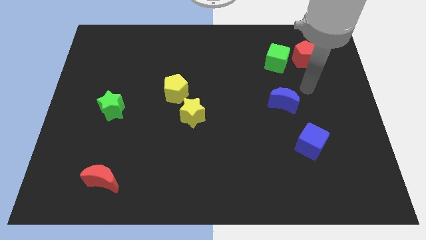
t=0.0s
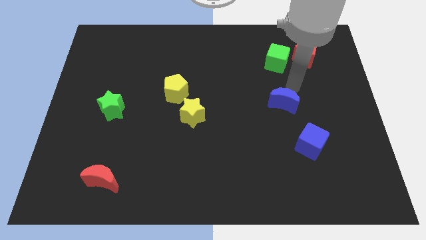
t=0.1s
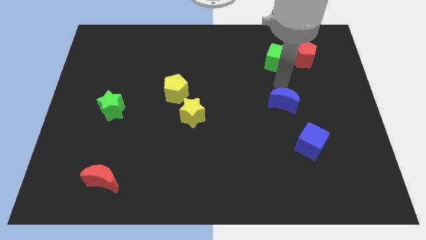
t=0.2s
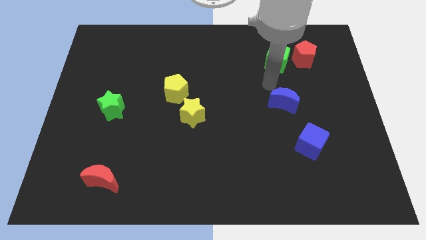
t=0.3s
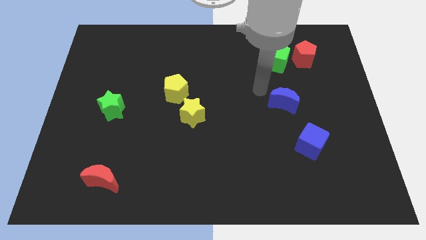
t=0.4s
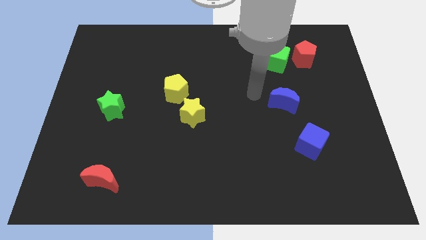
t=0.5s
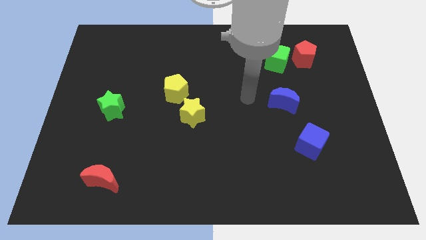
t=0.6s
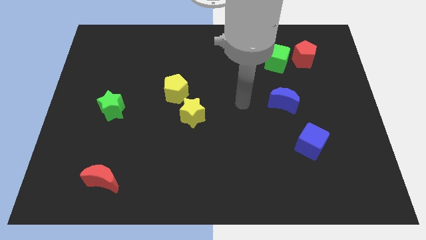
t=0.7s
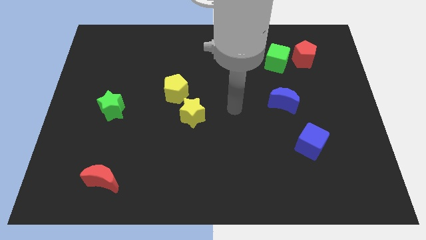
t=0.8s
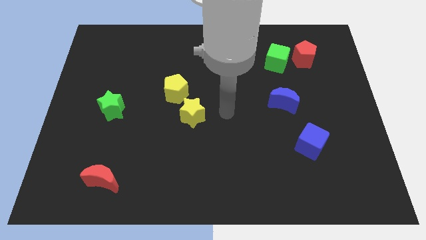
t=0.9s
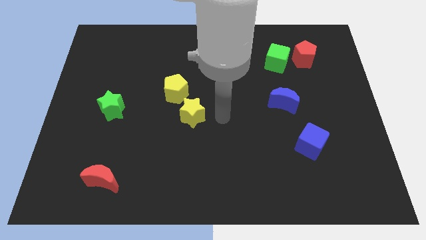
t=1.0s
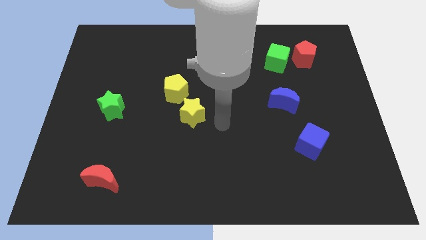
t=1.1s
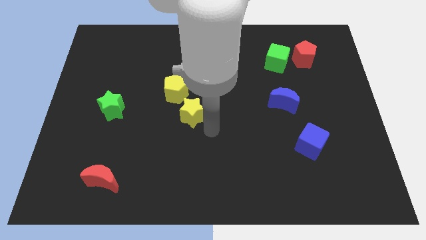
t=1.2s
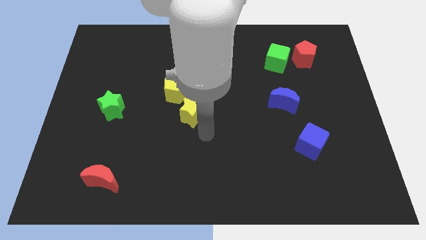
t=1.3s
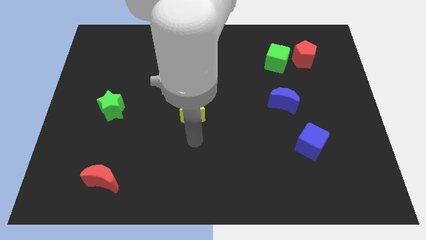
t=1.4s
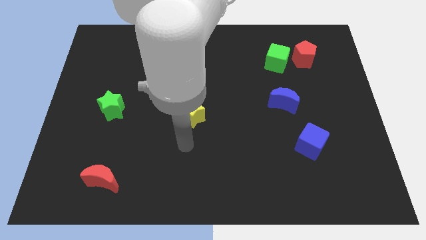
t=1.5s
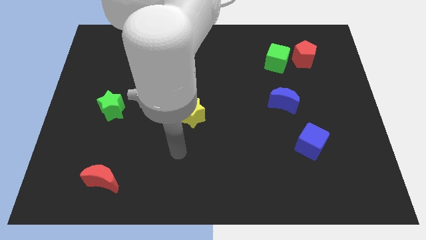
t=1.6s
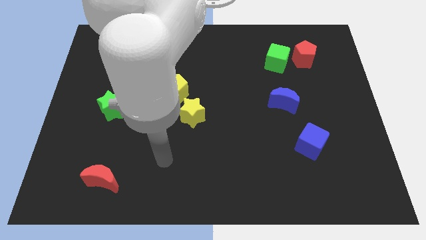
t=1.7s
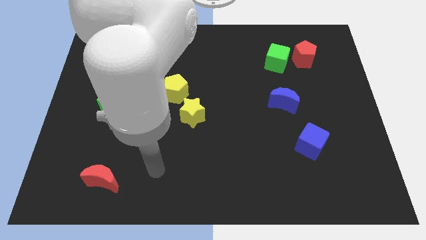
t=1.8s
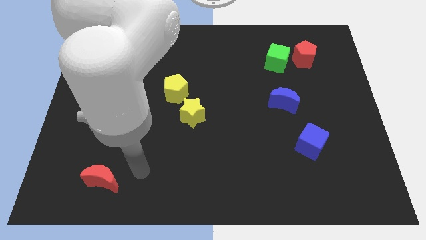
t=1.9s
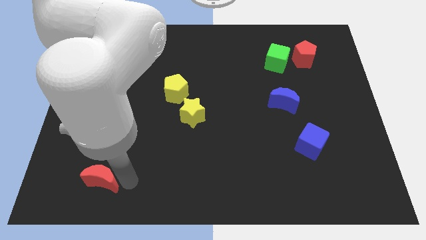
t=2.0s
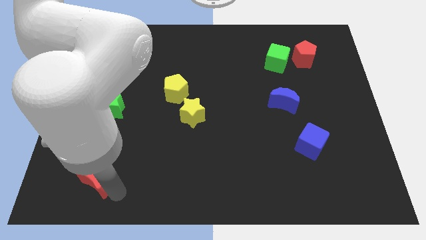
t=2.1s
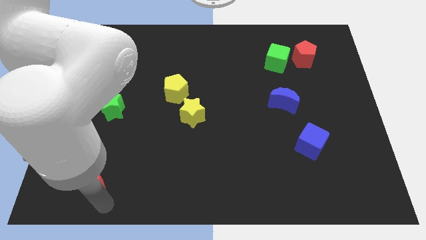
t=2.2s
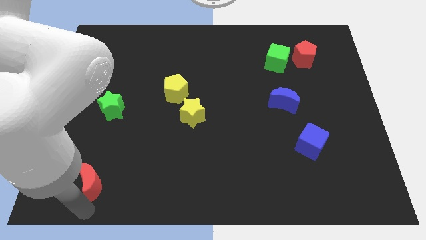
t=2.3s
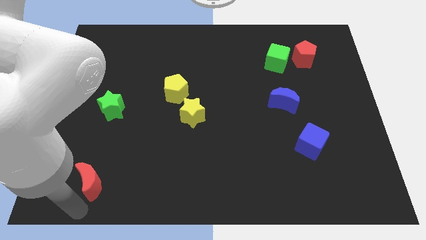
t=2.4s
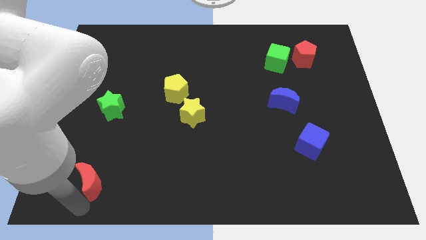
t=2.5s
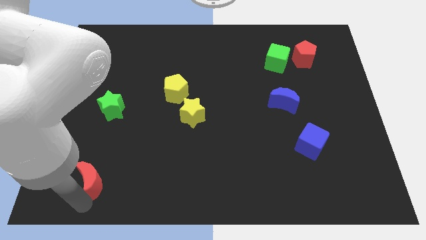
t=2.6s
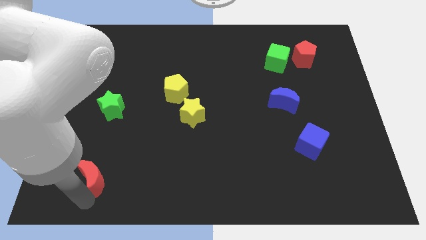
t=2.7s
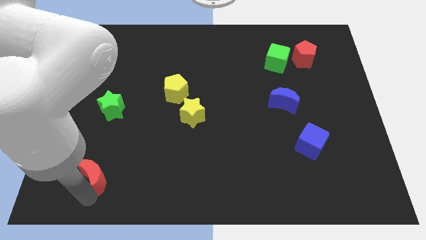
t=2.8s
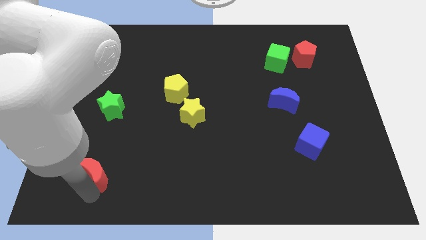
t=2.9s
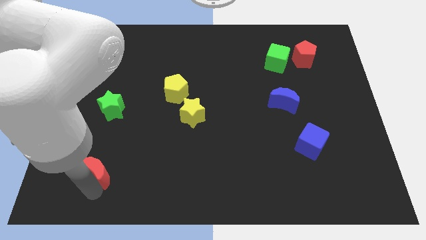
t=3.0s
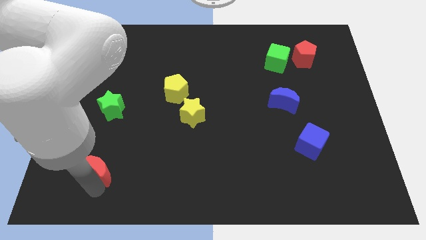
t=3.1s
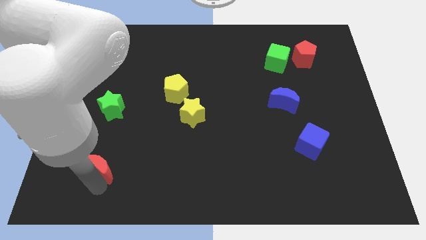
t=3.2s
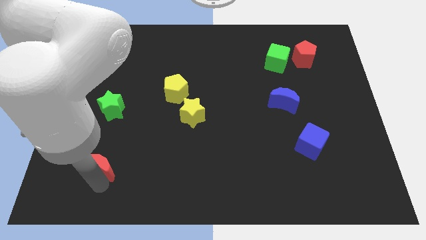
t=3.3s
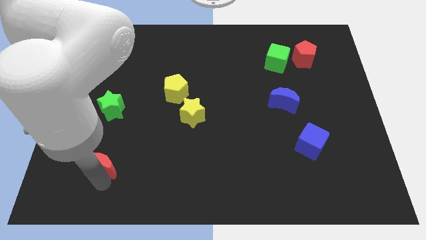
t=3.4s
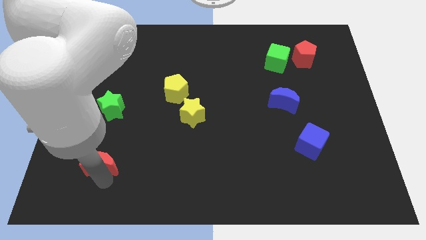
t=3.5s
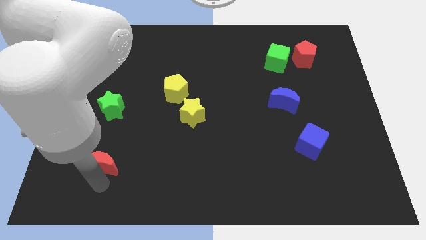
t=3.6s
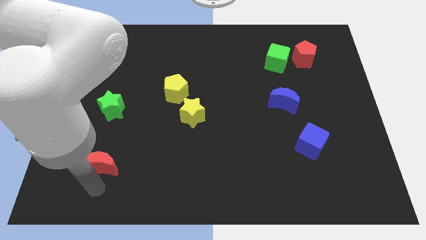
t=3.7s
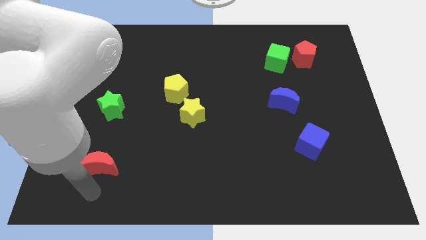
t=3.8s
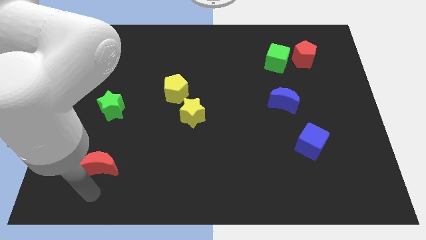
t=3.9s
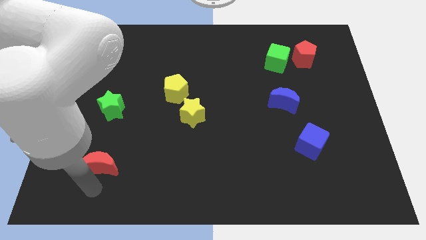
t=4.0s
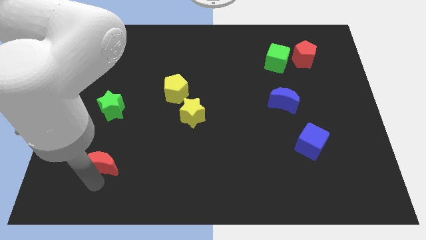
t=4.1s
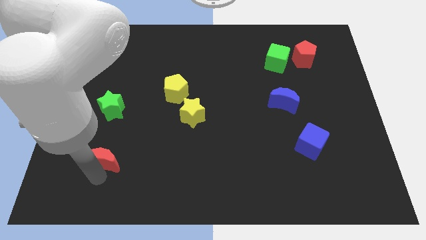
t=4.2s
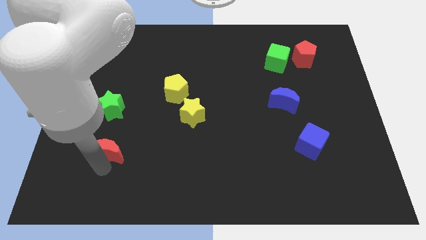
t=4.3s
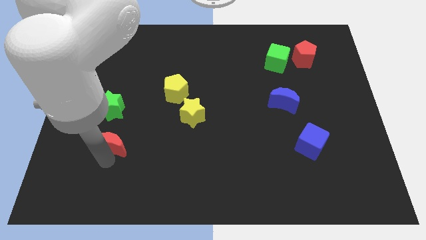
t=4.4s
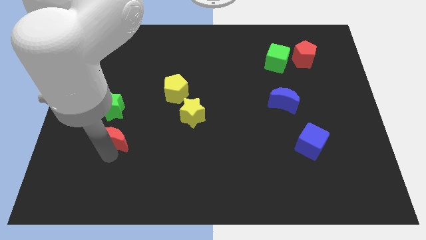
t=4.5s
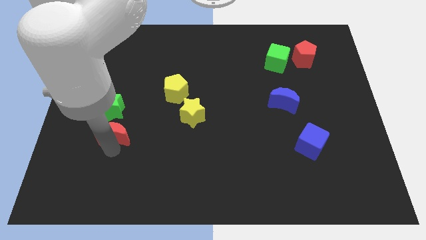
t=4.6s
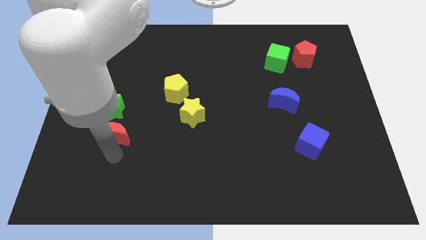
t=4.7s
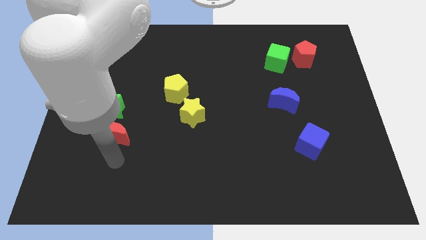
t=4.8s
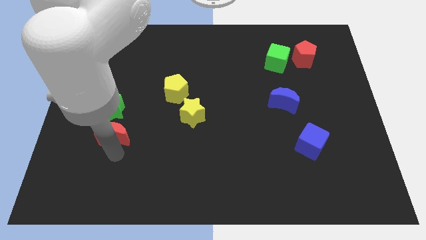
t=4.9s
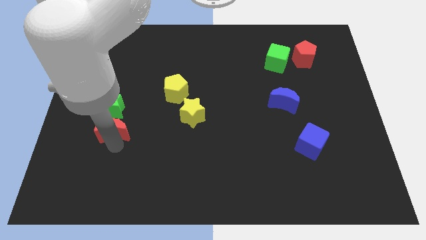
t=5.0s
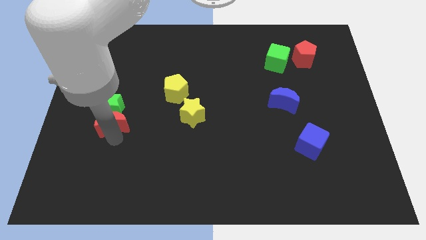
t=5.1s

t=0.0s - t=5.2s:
slide the red moon next to the green star

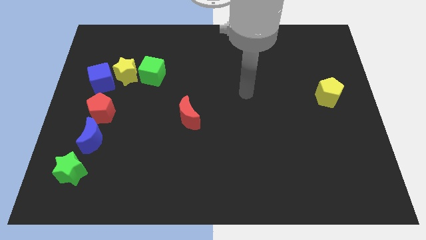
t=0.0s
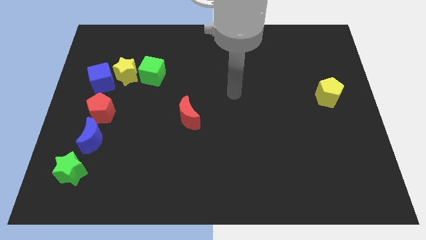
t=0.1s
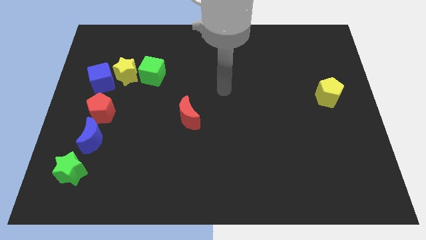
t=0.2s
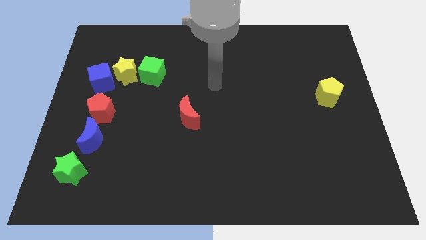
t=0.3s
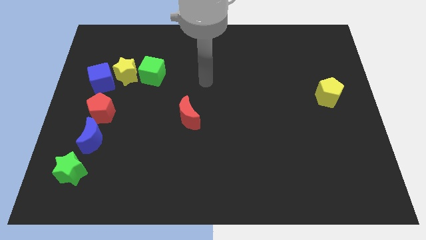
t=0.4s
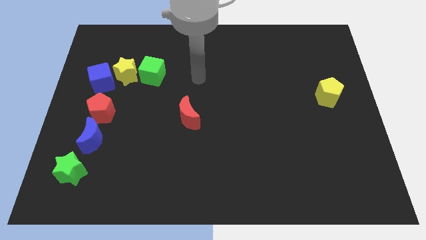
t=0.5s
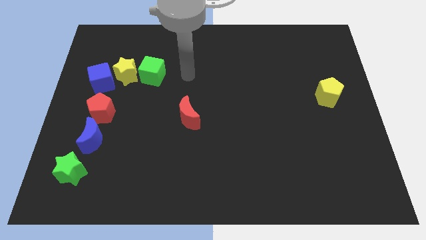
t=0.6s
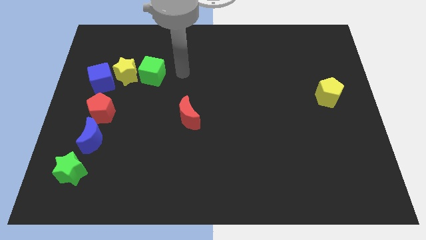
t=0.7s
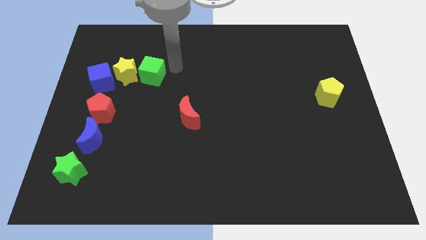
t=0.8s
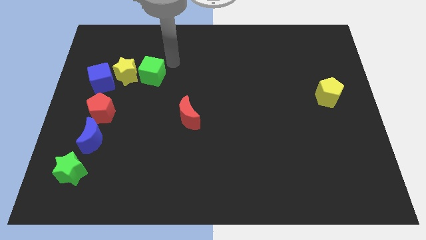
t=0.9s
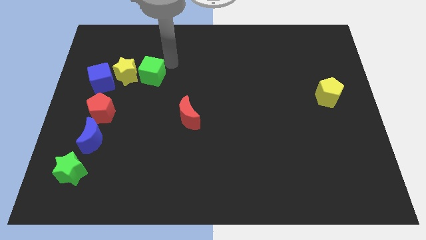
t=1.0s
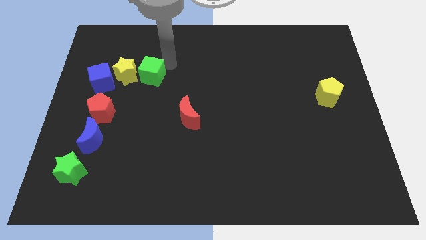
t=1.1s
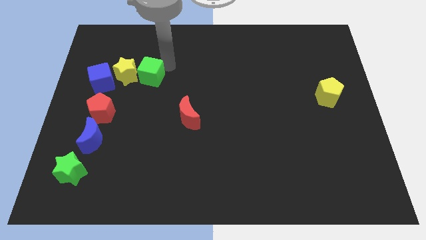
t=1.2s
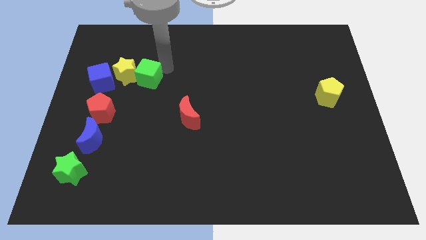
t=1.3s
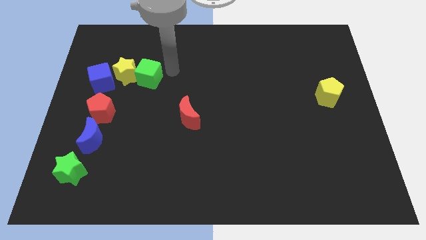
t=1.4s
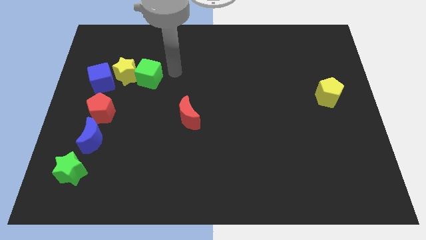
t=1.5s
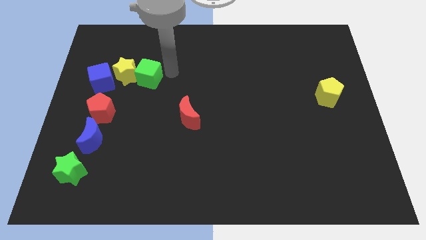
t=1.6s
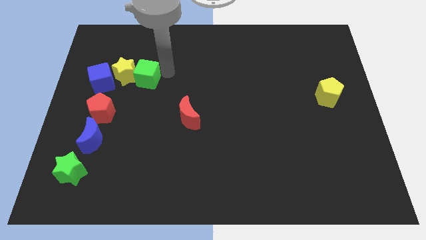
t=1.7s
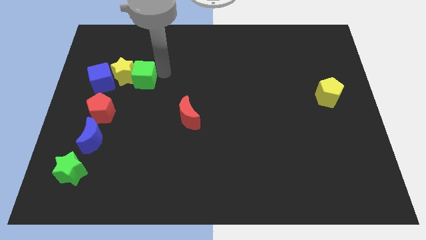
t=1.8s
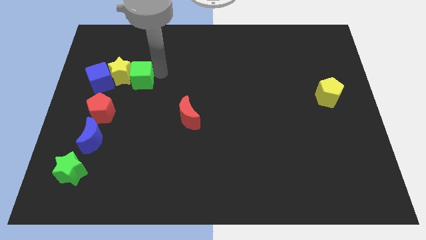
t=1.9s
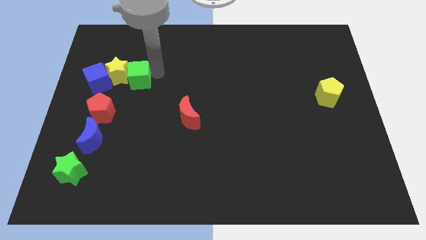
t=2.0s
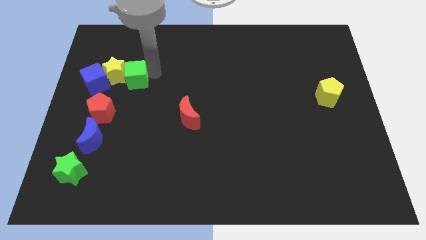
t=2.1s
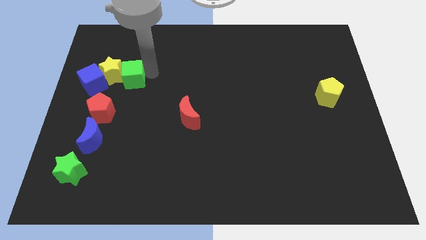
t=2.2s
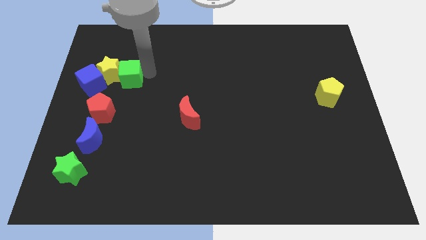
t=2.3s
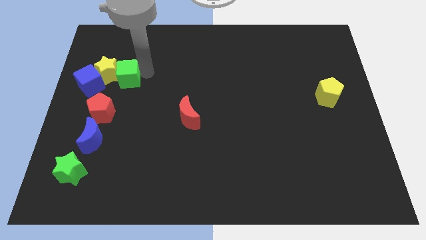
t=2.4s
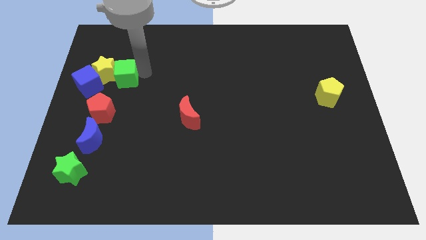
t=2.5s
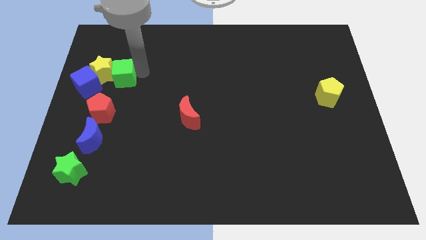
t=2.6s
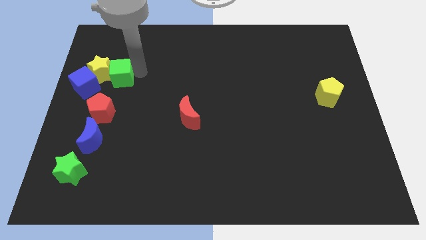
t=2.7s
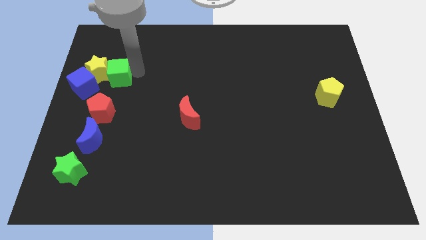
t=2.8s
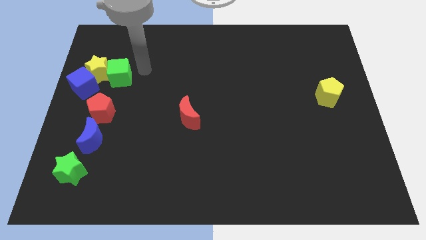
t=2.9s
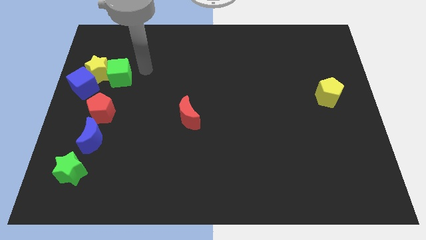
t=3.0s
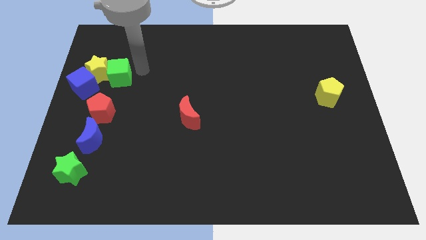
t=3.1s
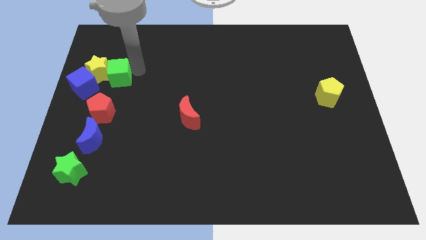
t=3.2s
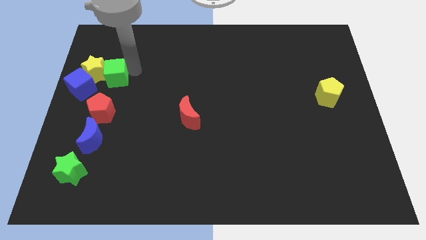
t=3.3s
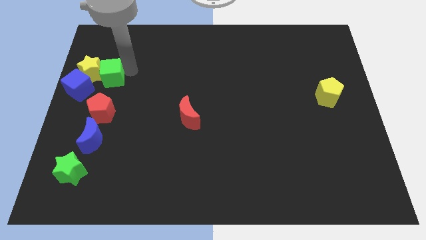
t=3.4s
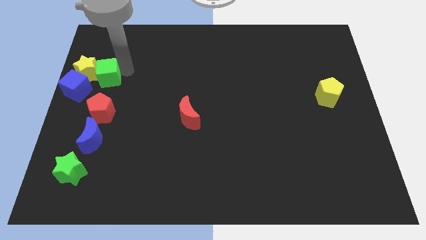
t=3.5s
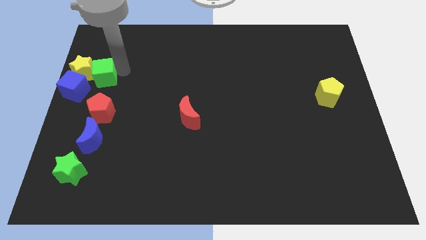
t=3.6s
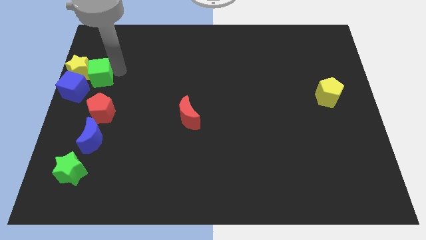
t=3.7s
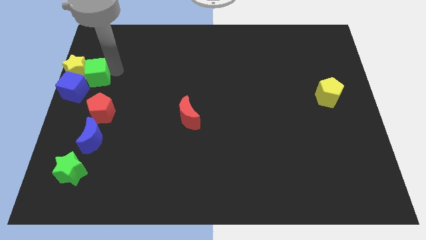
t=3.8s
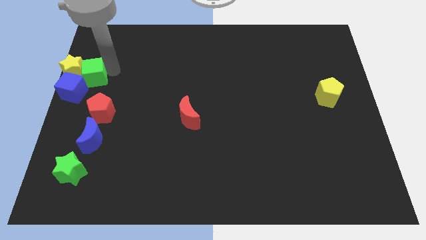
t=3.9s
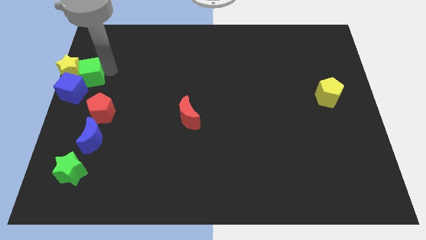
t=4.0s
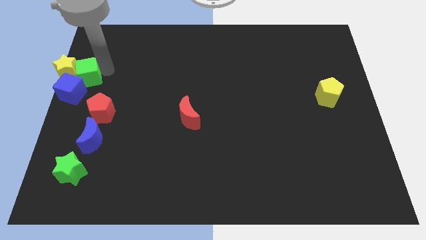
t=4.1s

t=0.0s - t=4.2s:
move the green cube towards the blue cube
